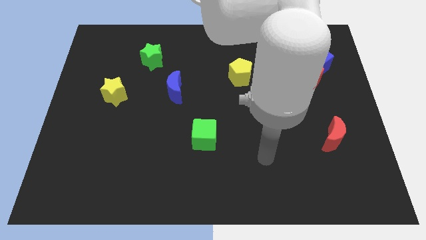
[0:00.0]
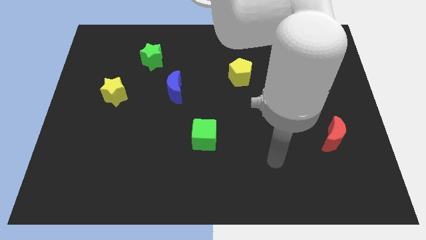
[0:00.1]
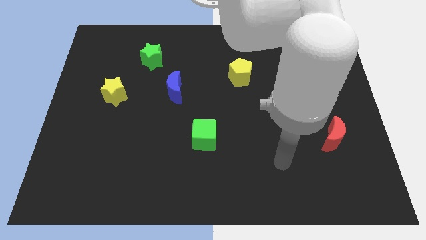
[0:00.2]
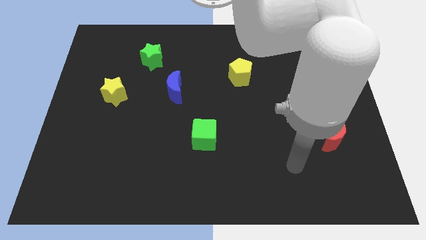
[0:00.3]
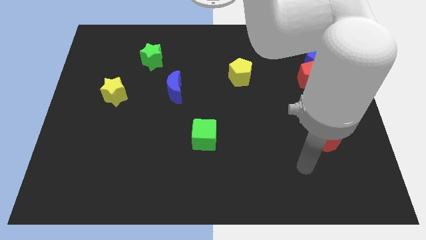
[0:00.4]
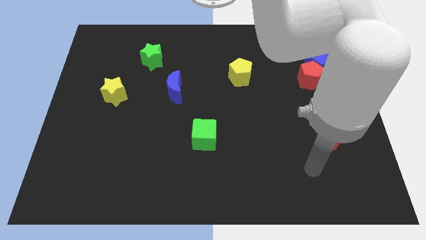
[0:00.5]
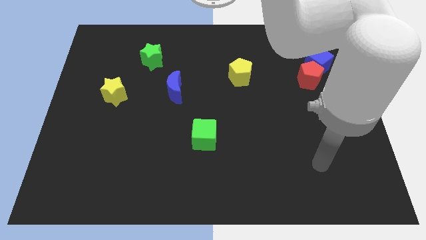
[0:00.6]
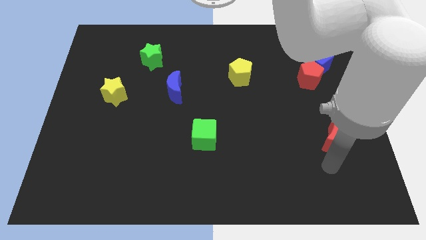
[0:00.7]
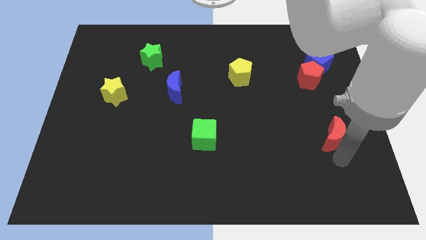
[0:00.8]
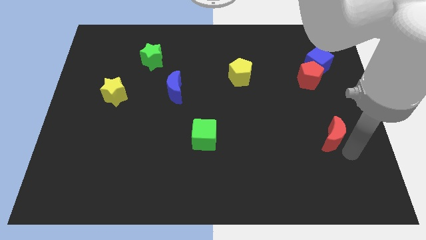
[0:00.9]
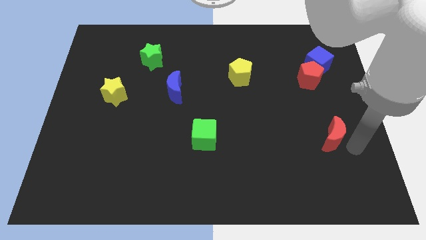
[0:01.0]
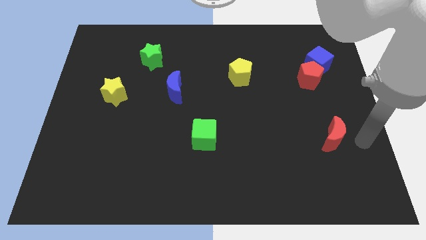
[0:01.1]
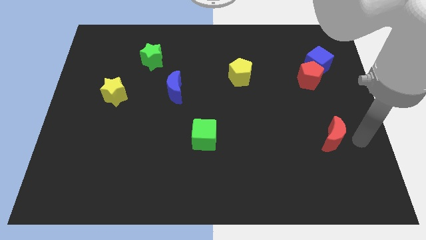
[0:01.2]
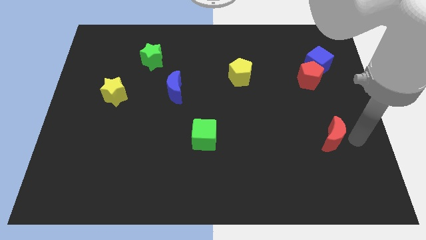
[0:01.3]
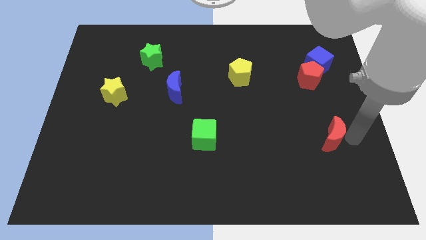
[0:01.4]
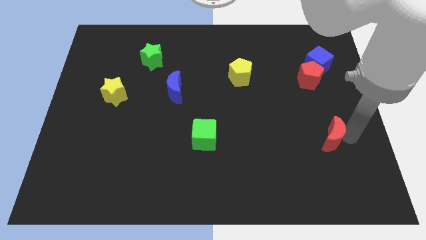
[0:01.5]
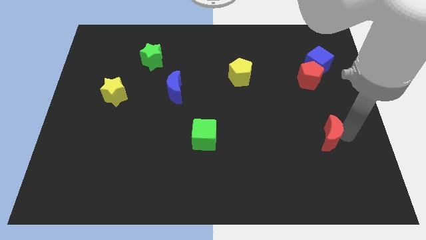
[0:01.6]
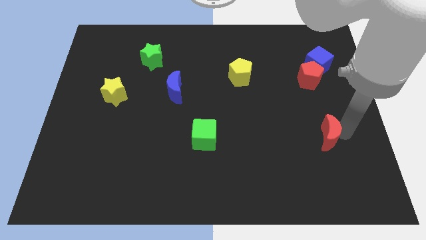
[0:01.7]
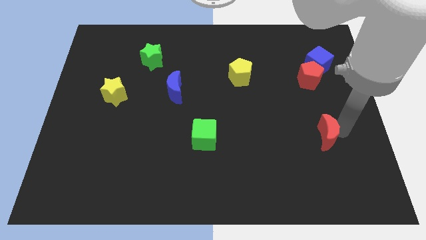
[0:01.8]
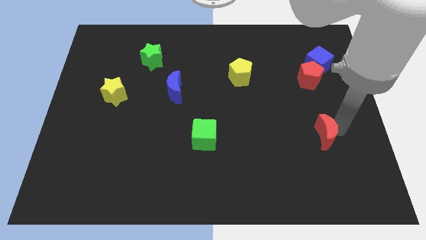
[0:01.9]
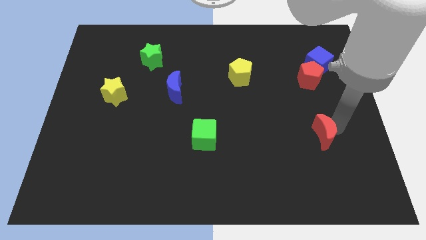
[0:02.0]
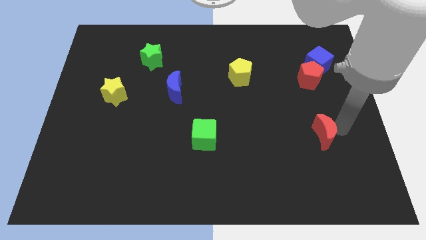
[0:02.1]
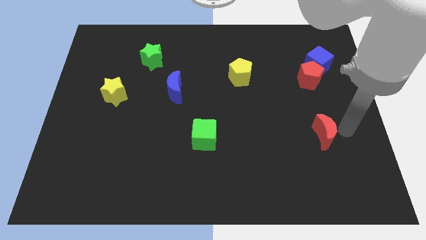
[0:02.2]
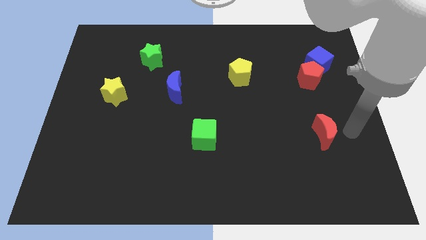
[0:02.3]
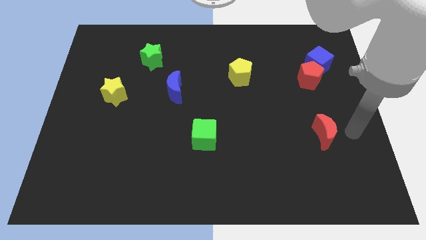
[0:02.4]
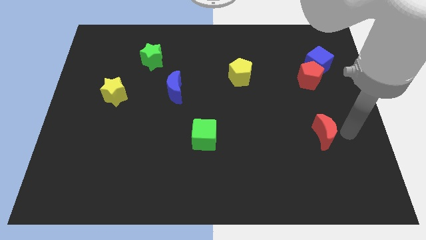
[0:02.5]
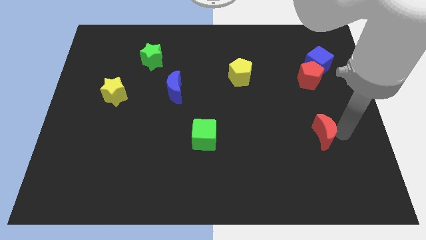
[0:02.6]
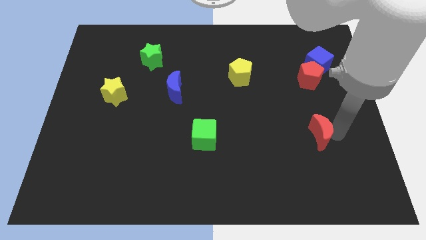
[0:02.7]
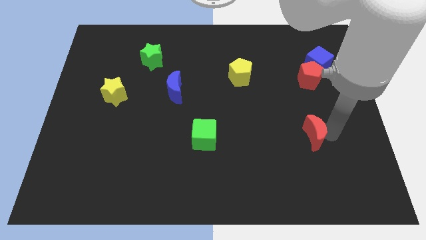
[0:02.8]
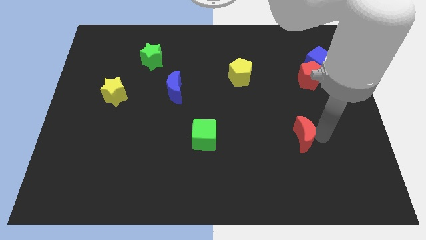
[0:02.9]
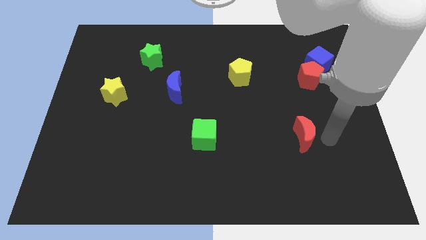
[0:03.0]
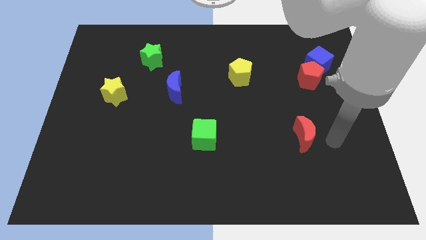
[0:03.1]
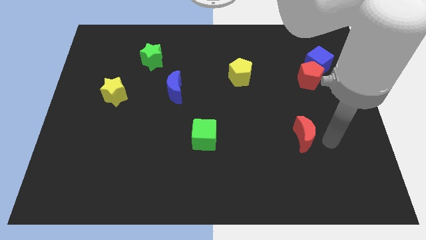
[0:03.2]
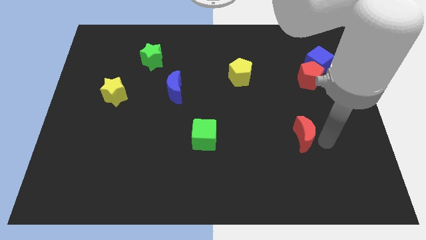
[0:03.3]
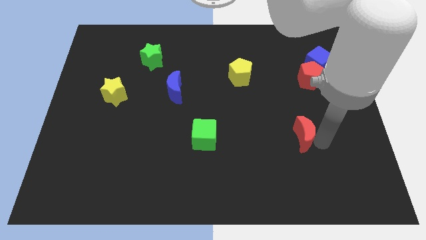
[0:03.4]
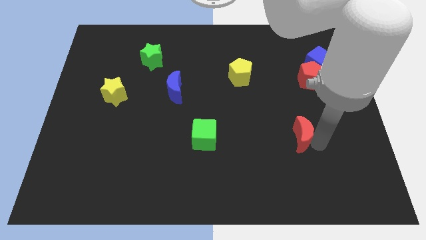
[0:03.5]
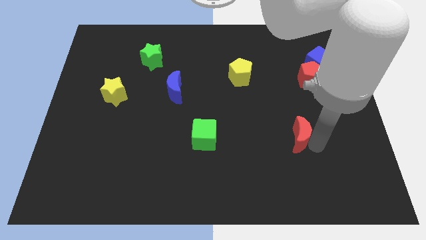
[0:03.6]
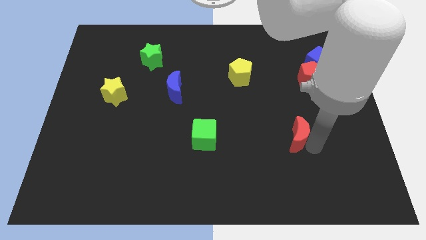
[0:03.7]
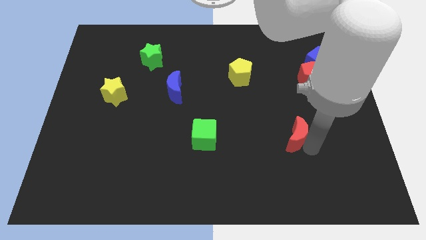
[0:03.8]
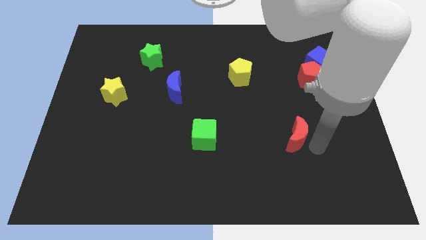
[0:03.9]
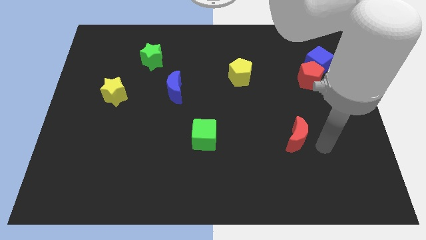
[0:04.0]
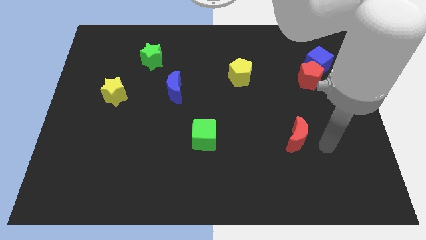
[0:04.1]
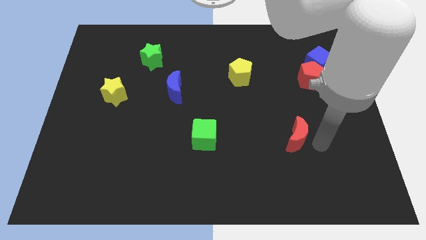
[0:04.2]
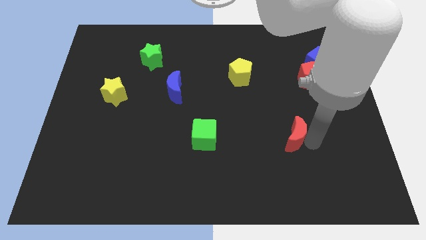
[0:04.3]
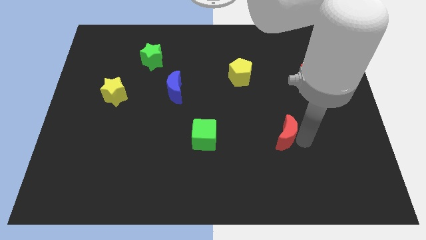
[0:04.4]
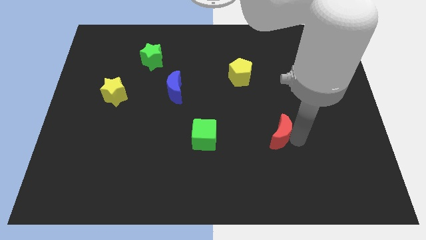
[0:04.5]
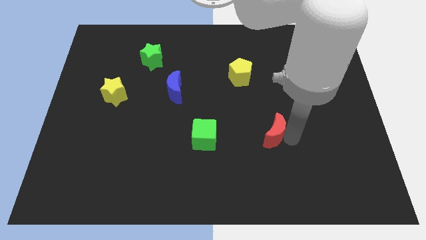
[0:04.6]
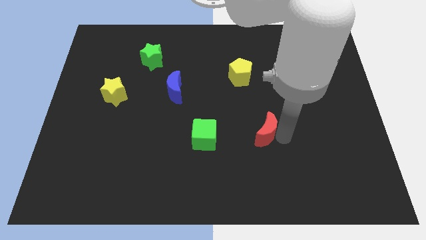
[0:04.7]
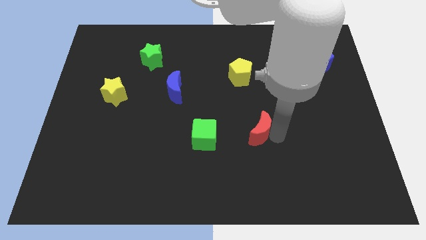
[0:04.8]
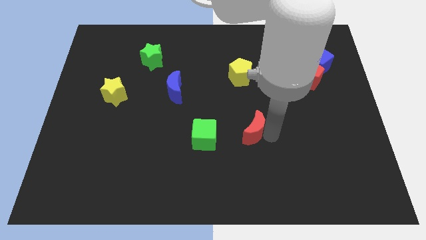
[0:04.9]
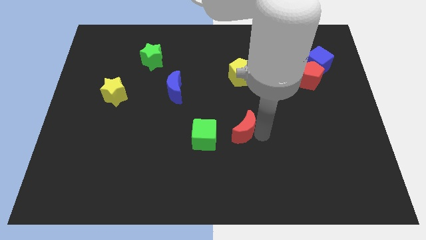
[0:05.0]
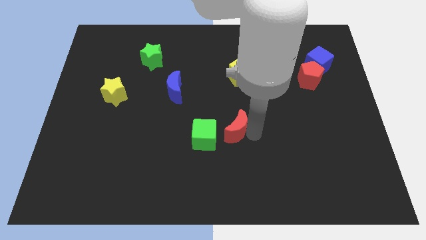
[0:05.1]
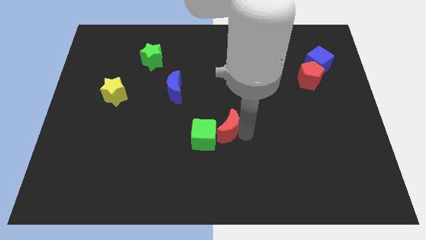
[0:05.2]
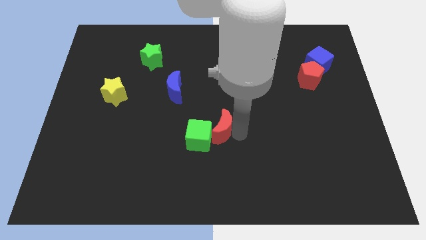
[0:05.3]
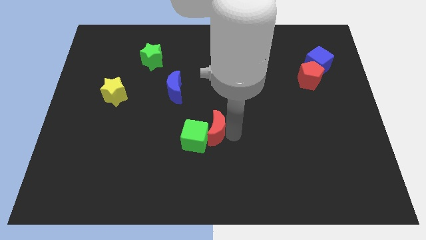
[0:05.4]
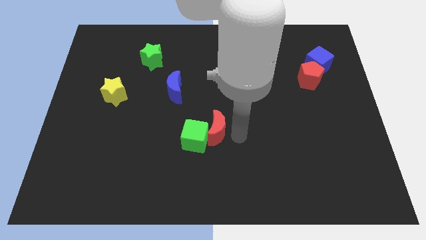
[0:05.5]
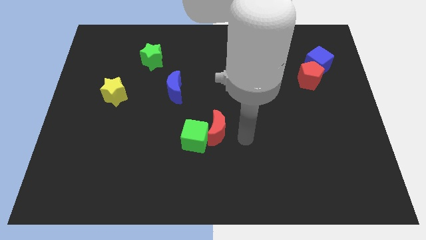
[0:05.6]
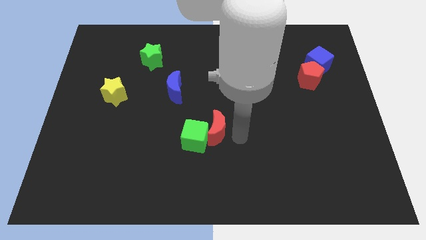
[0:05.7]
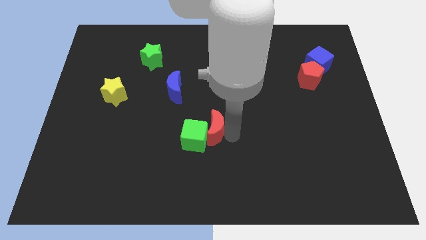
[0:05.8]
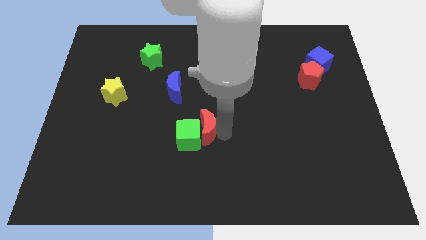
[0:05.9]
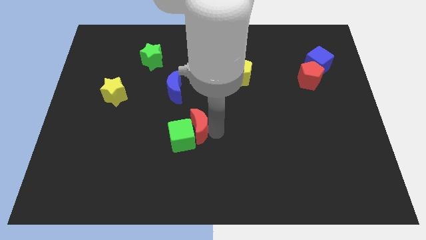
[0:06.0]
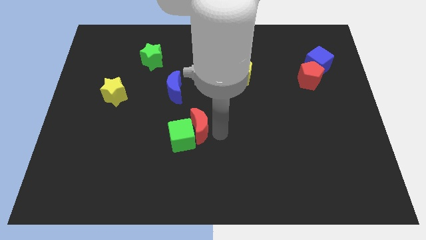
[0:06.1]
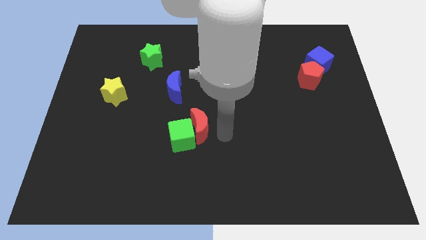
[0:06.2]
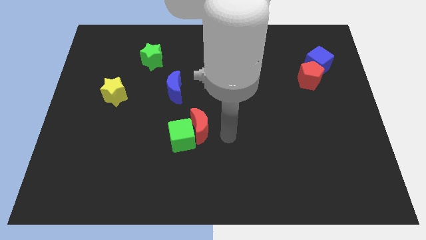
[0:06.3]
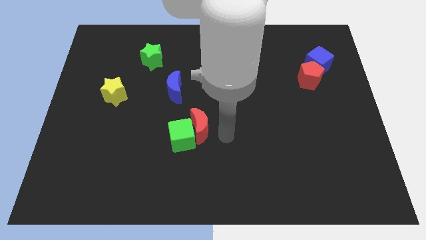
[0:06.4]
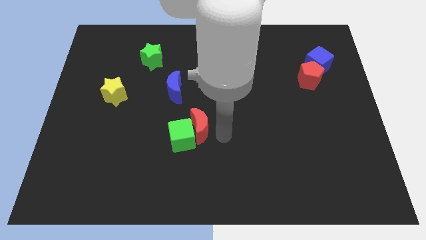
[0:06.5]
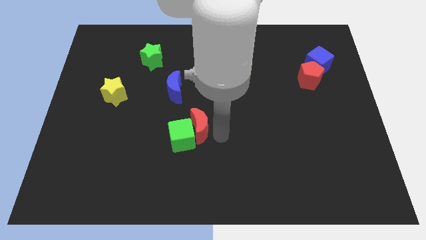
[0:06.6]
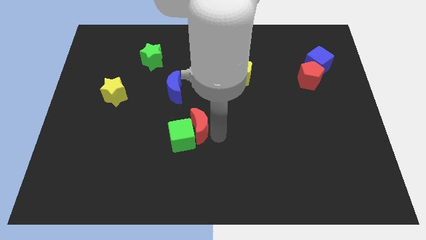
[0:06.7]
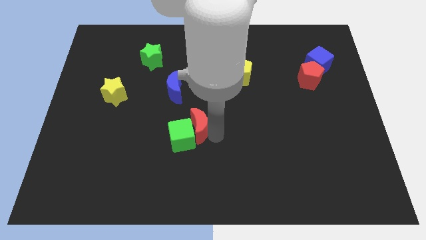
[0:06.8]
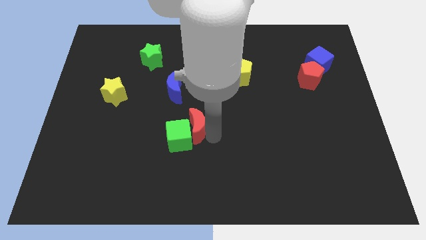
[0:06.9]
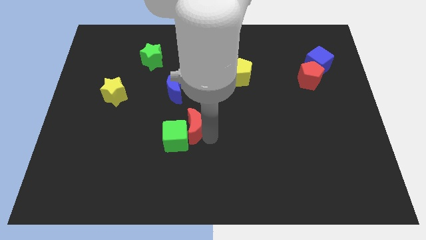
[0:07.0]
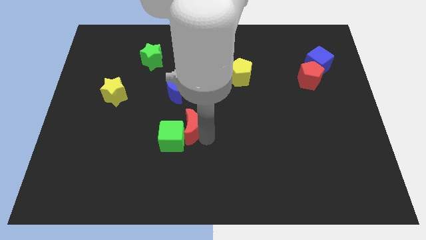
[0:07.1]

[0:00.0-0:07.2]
slide the red moon below the blue moon

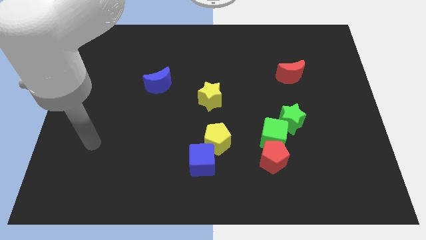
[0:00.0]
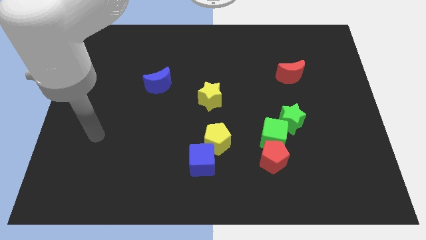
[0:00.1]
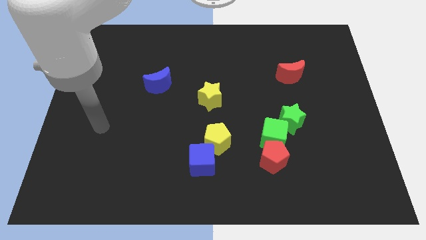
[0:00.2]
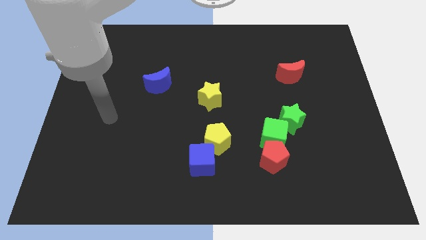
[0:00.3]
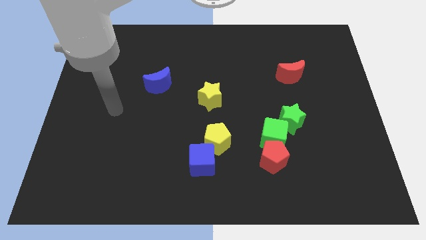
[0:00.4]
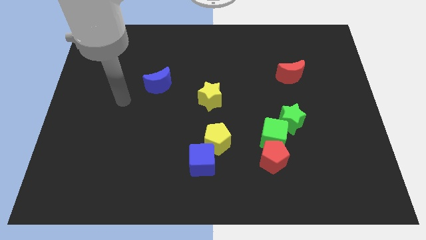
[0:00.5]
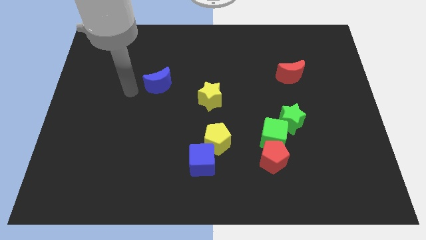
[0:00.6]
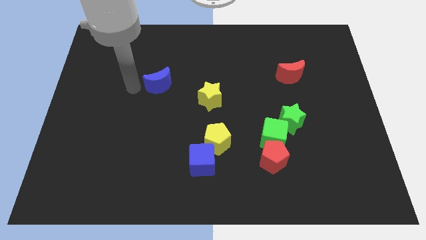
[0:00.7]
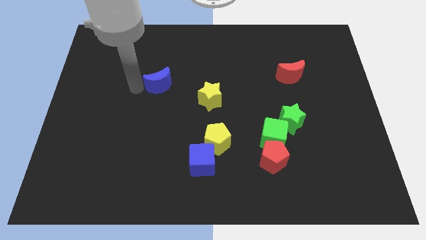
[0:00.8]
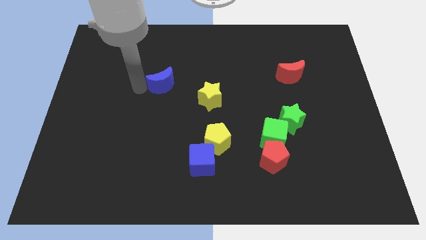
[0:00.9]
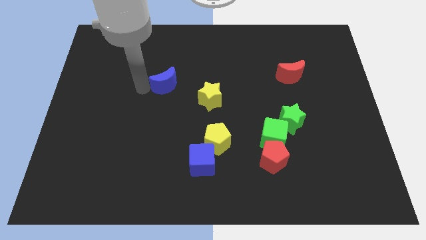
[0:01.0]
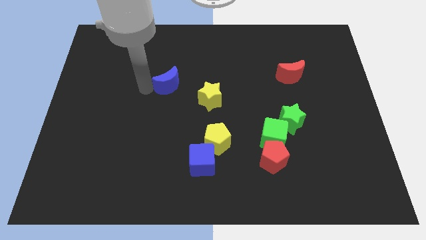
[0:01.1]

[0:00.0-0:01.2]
put the blue moon to the top left of the yellow star
